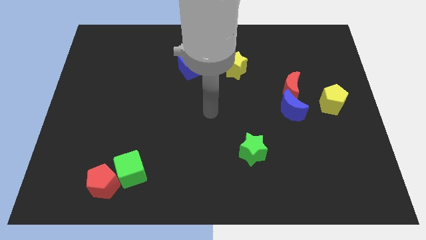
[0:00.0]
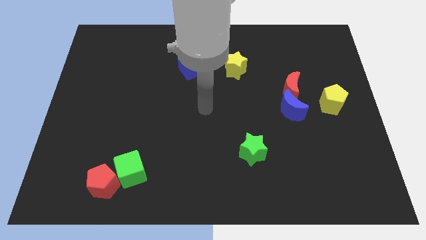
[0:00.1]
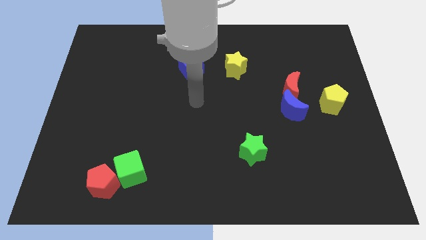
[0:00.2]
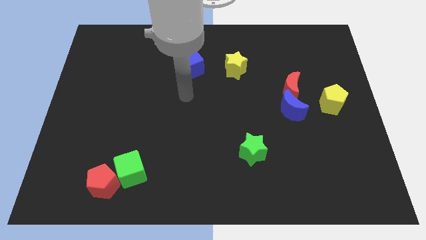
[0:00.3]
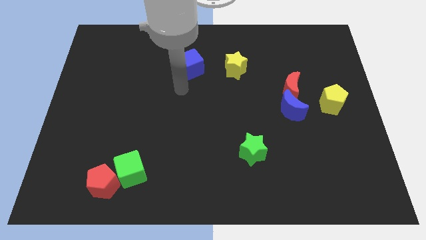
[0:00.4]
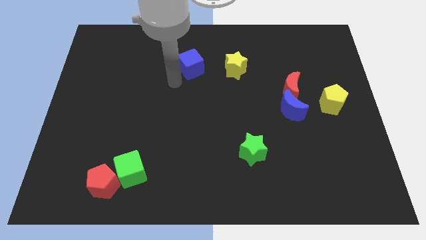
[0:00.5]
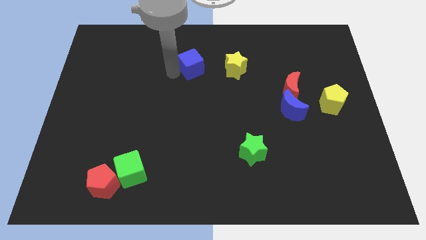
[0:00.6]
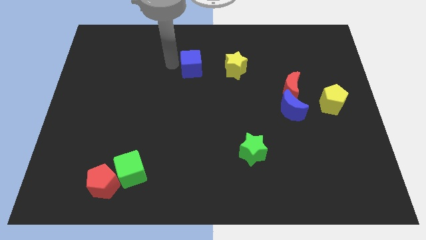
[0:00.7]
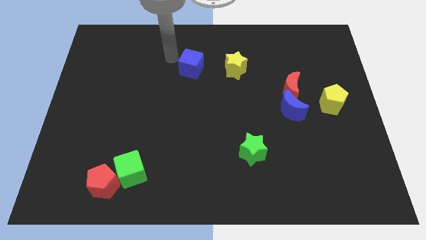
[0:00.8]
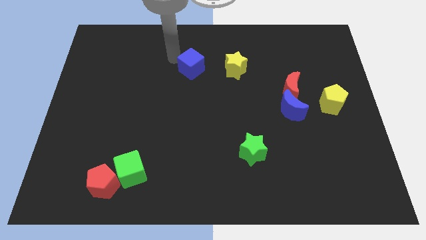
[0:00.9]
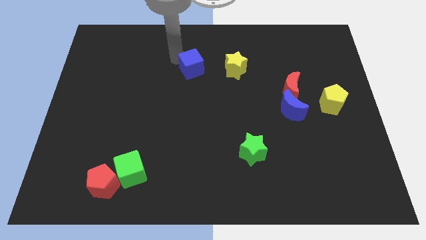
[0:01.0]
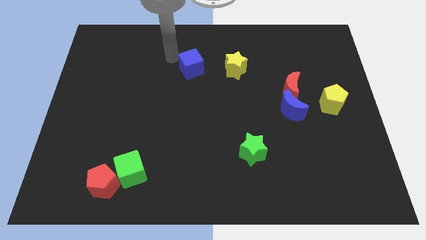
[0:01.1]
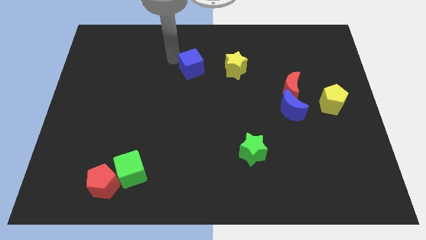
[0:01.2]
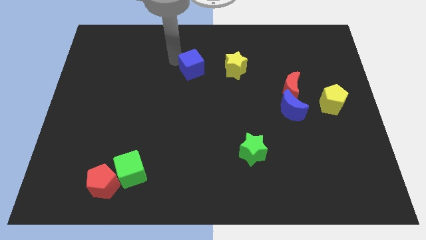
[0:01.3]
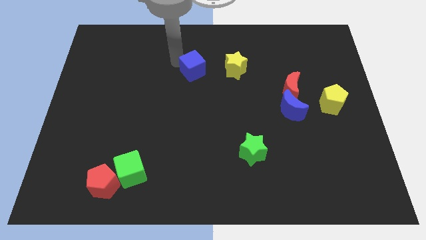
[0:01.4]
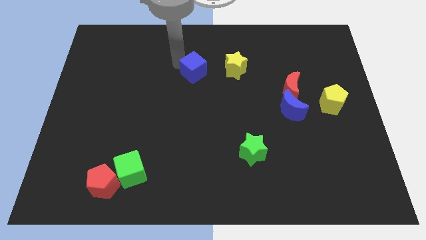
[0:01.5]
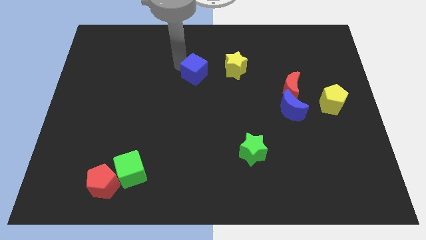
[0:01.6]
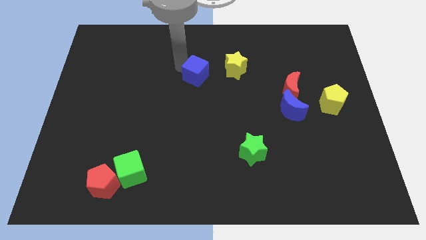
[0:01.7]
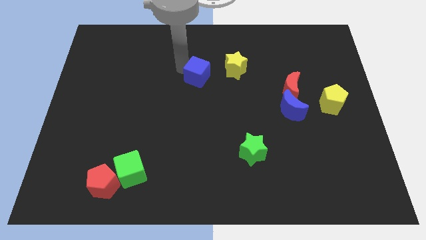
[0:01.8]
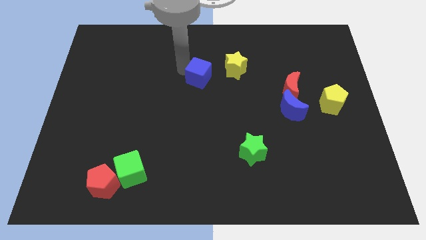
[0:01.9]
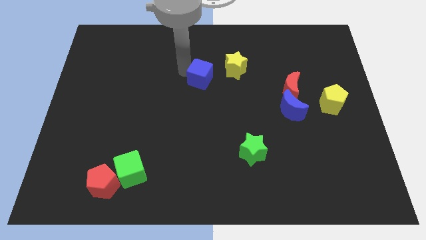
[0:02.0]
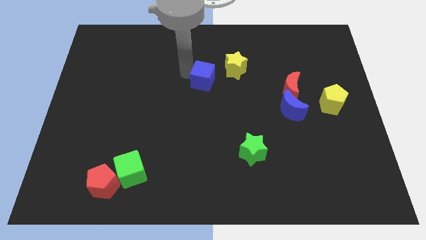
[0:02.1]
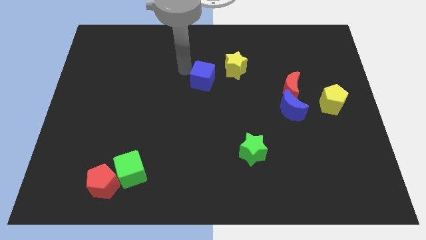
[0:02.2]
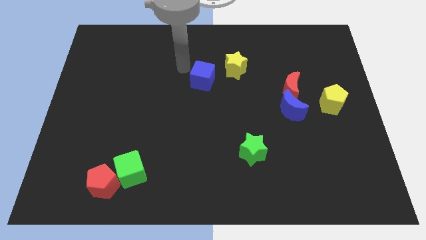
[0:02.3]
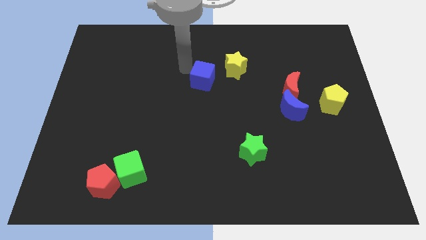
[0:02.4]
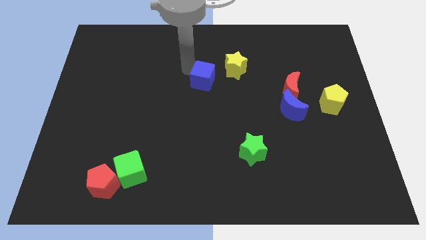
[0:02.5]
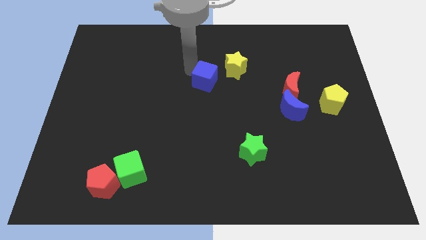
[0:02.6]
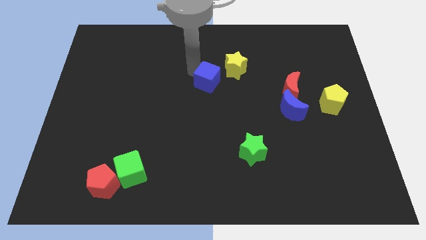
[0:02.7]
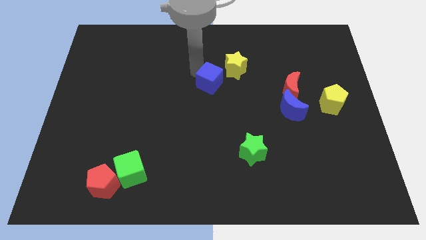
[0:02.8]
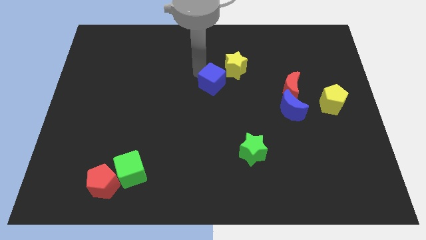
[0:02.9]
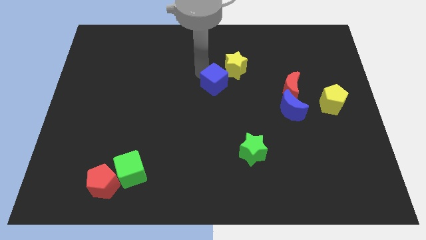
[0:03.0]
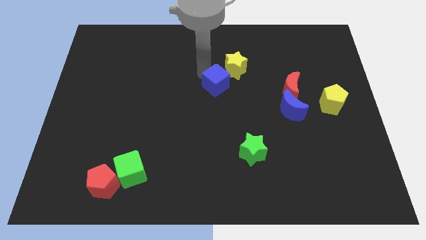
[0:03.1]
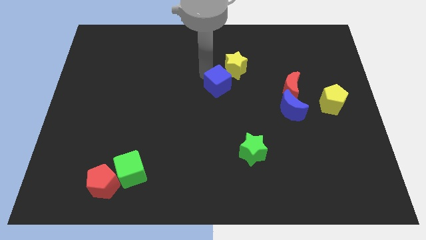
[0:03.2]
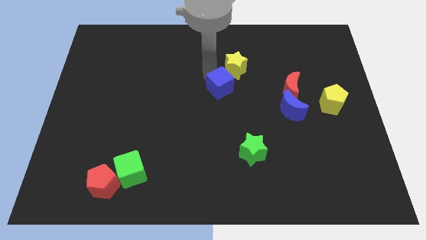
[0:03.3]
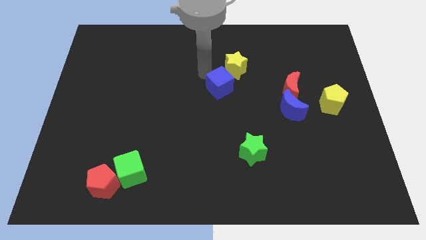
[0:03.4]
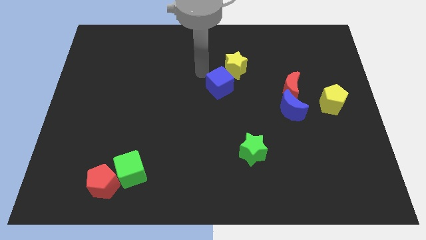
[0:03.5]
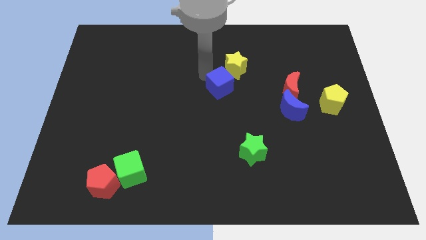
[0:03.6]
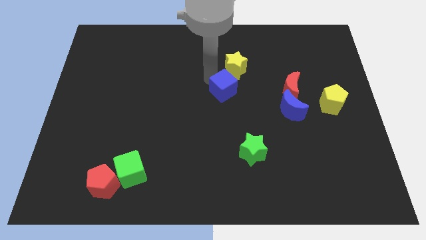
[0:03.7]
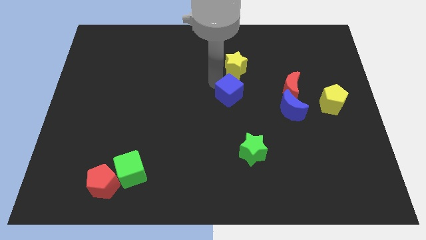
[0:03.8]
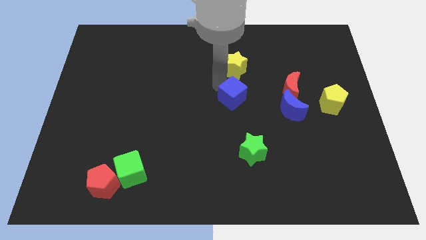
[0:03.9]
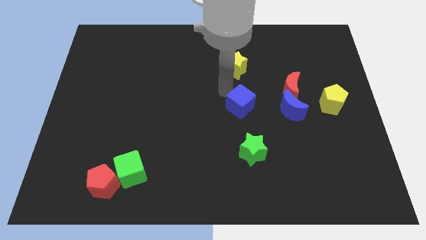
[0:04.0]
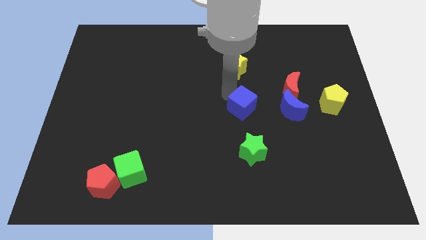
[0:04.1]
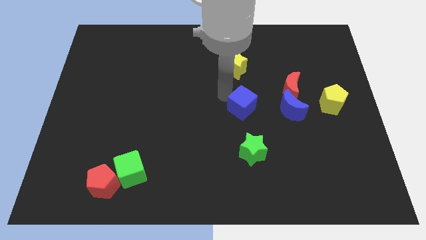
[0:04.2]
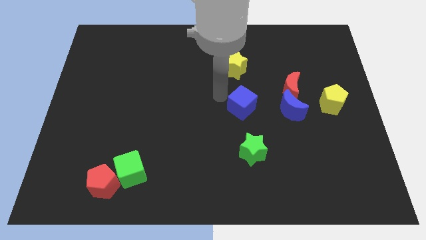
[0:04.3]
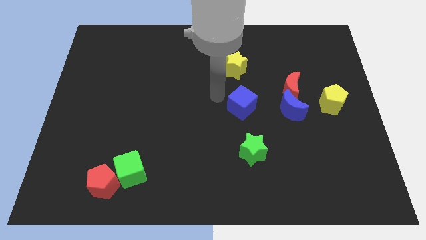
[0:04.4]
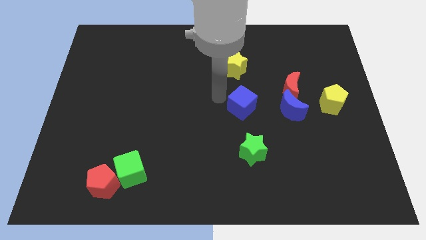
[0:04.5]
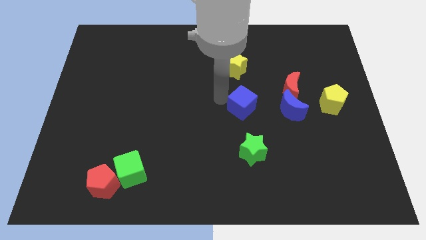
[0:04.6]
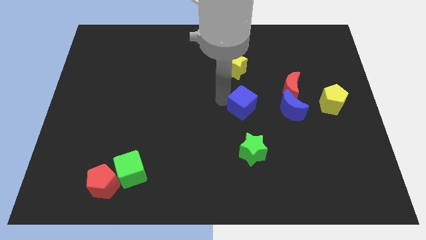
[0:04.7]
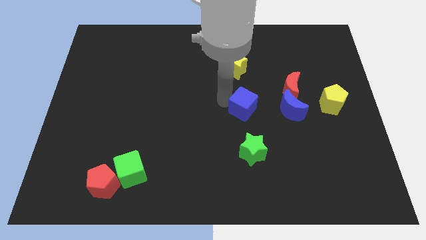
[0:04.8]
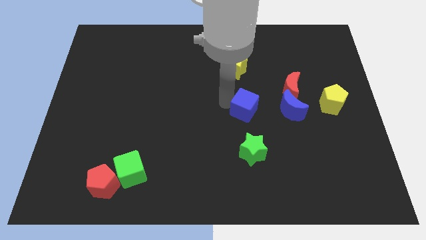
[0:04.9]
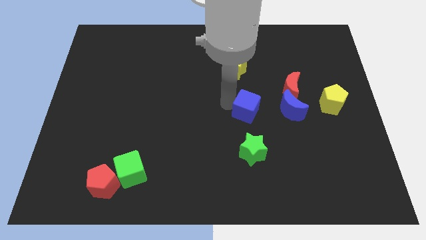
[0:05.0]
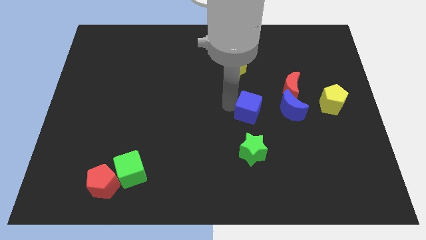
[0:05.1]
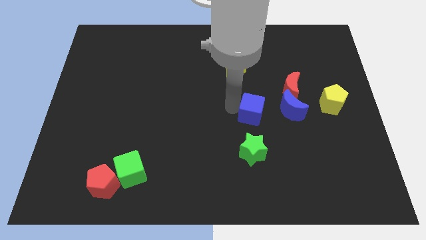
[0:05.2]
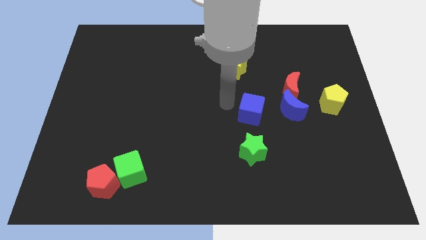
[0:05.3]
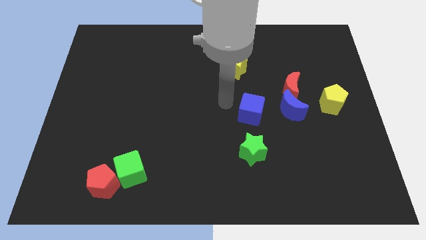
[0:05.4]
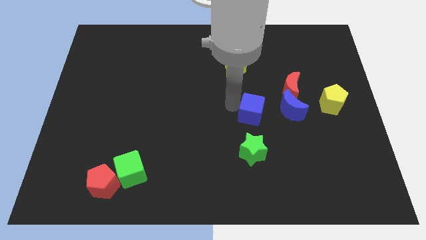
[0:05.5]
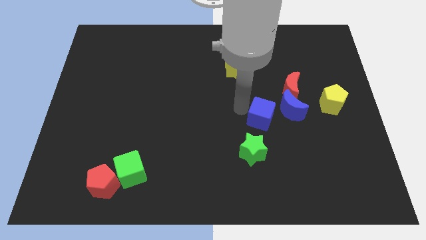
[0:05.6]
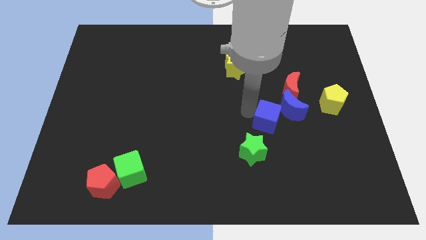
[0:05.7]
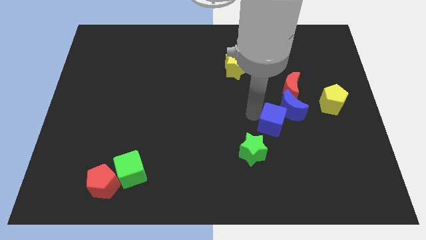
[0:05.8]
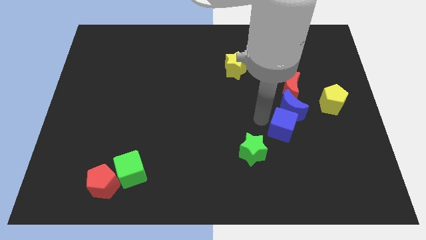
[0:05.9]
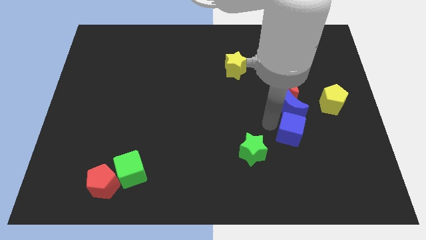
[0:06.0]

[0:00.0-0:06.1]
put the blue cube to the bottom right of the blue moon

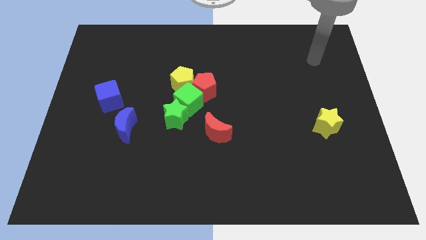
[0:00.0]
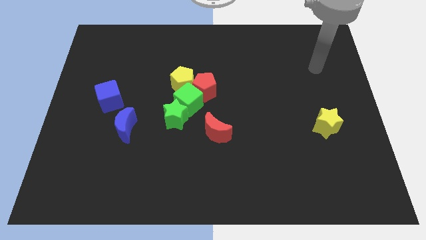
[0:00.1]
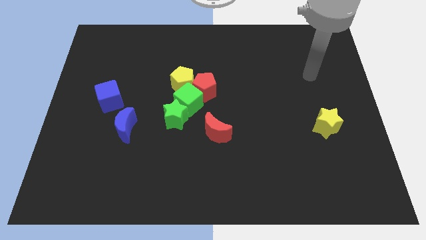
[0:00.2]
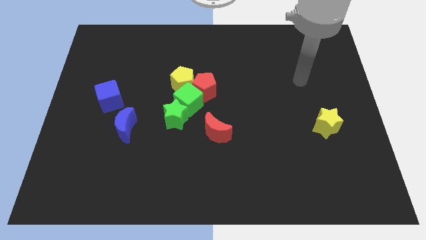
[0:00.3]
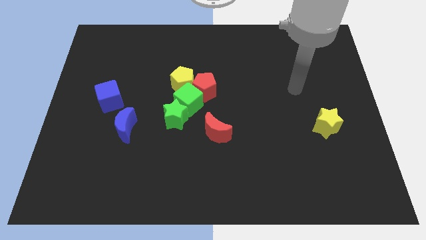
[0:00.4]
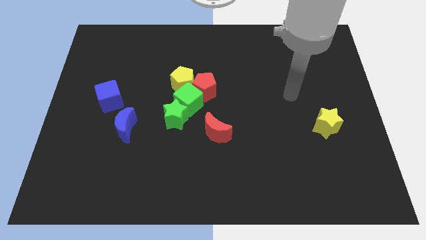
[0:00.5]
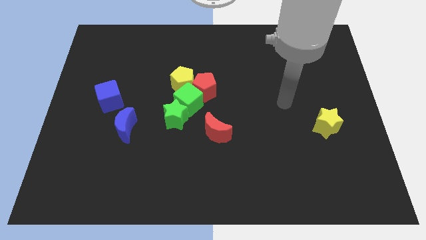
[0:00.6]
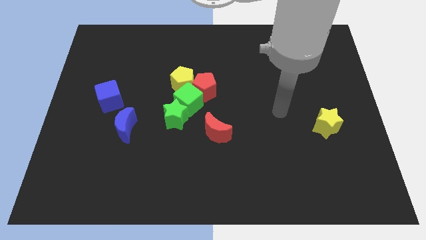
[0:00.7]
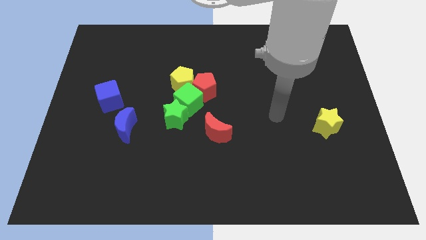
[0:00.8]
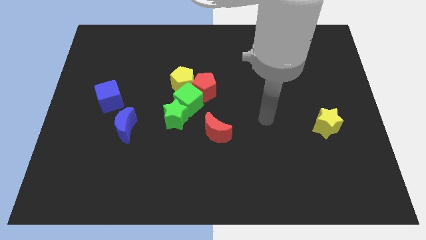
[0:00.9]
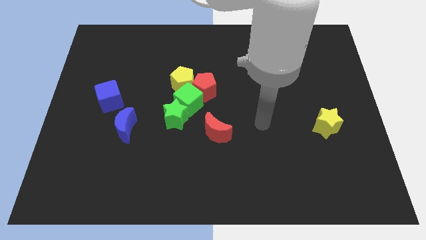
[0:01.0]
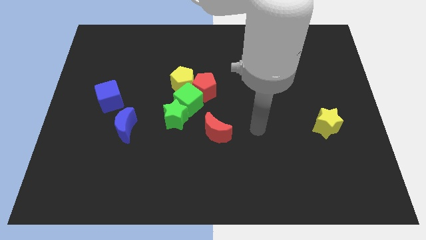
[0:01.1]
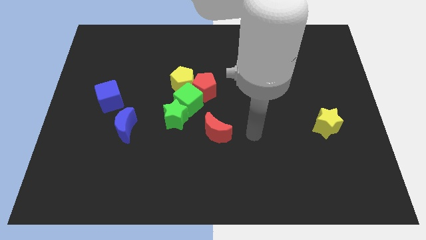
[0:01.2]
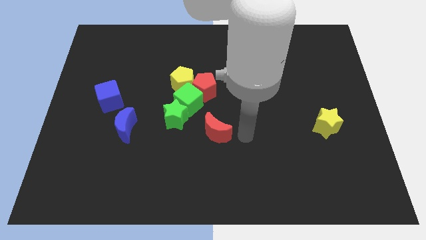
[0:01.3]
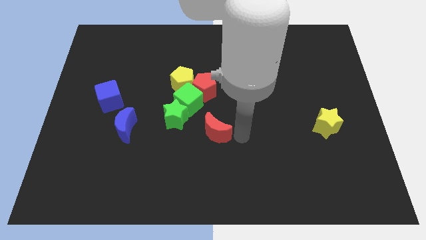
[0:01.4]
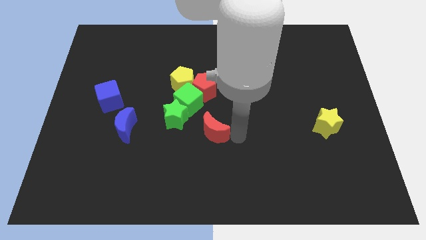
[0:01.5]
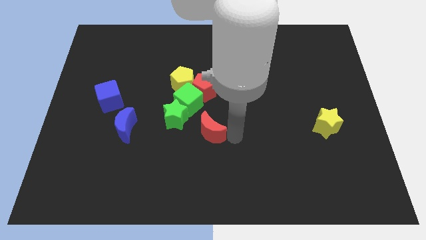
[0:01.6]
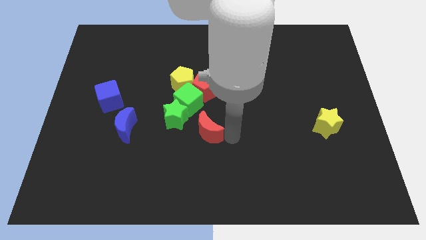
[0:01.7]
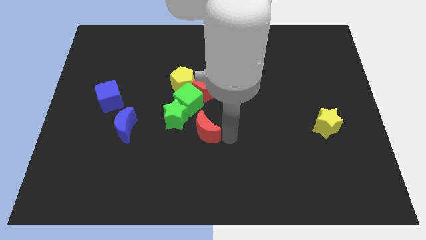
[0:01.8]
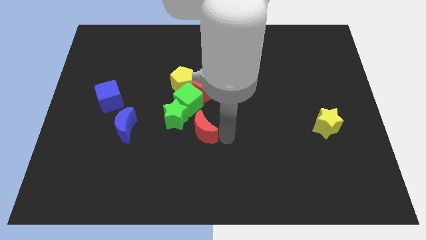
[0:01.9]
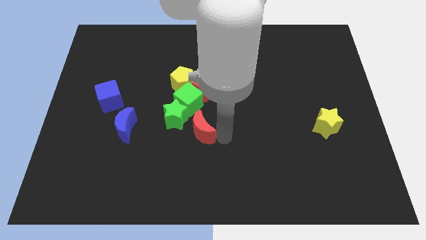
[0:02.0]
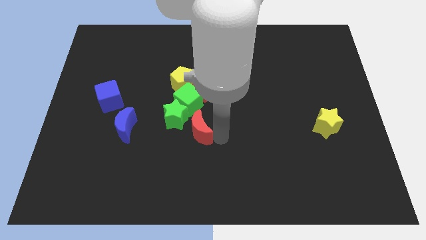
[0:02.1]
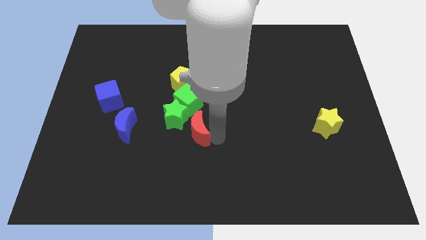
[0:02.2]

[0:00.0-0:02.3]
slide the red moon to the bottom side of the yellow pentagon
